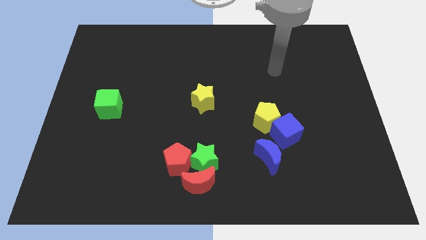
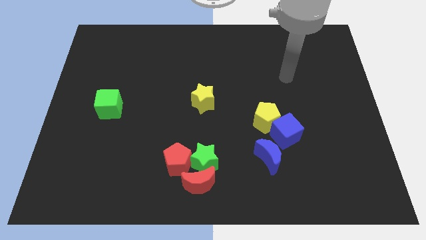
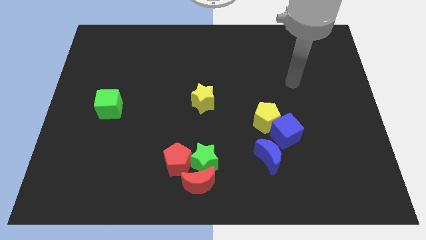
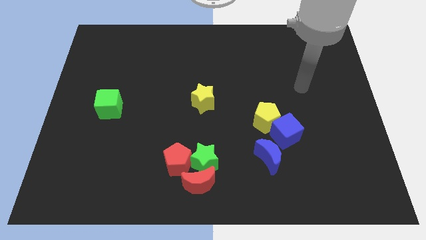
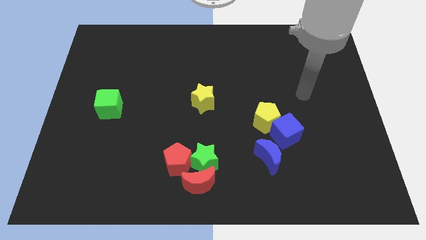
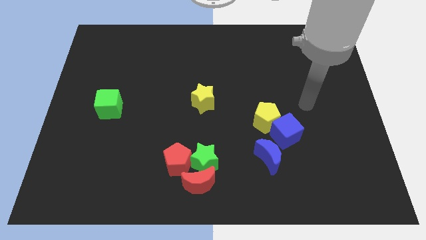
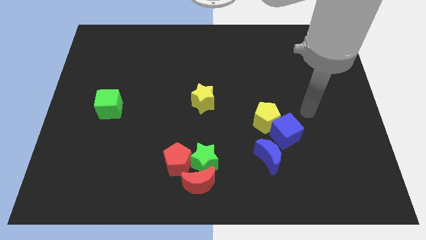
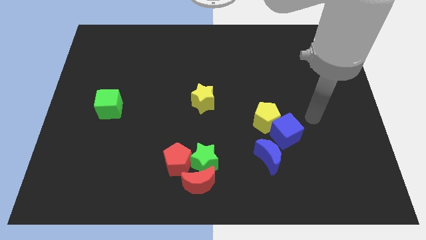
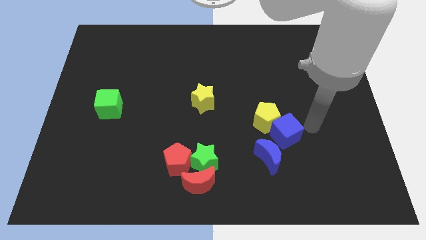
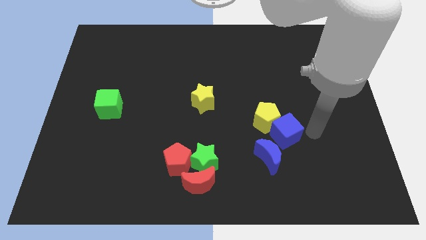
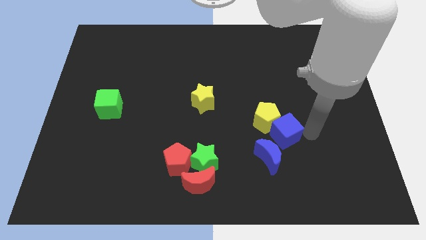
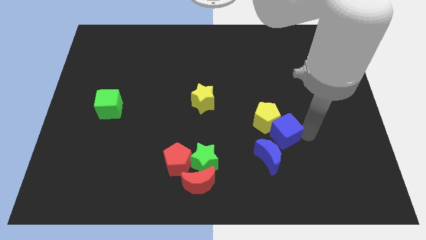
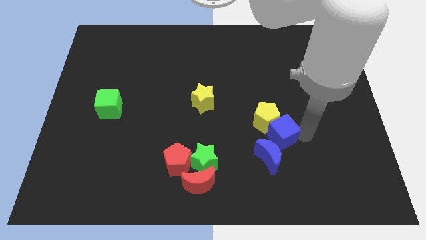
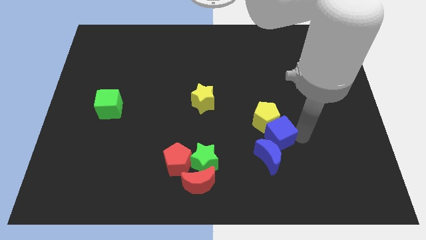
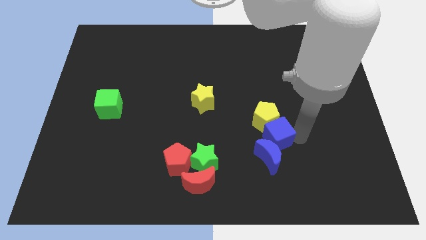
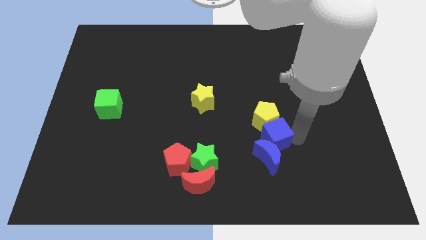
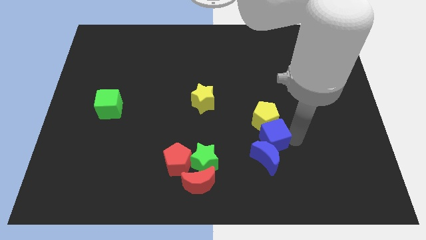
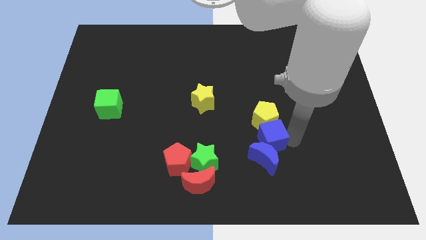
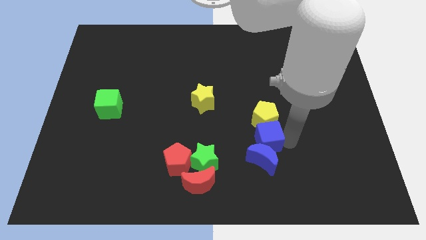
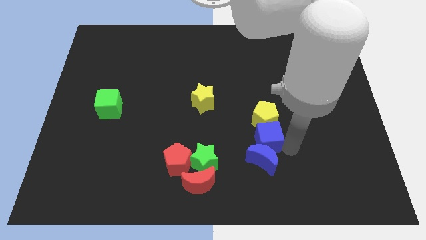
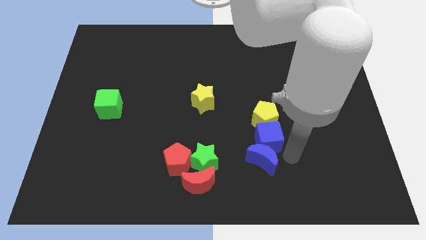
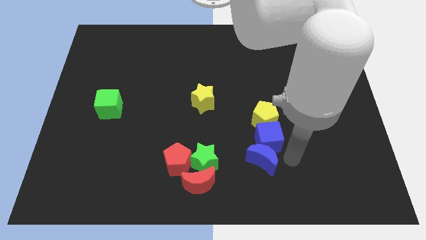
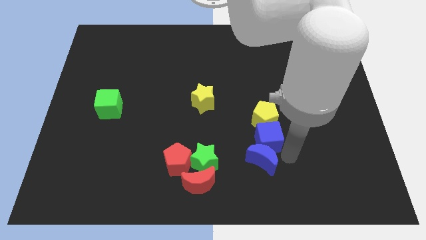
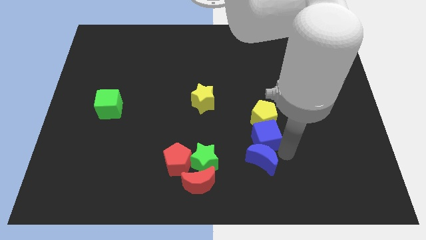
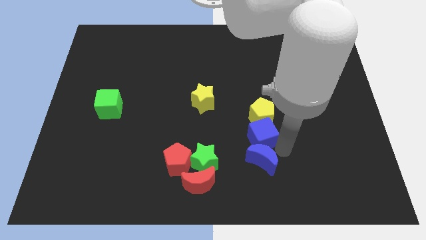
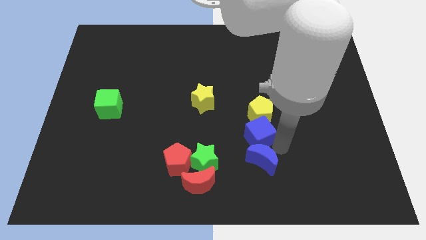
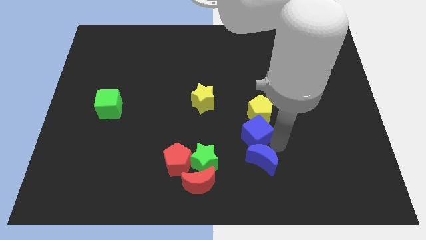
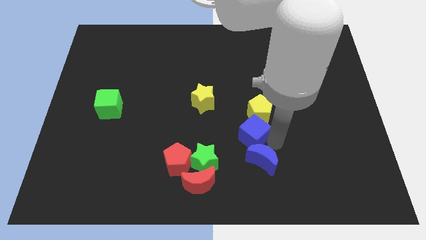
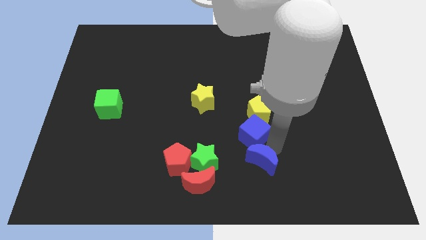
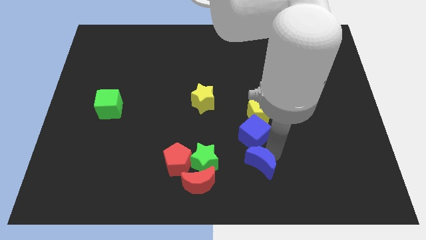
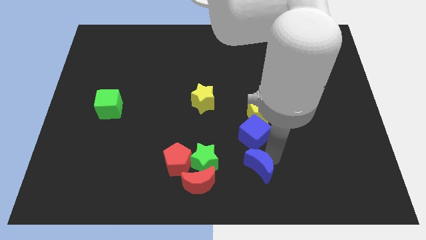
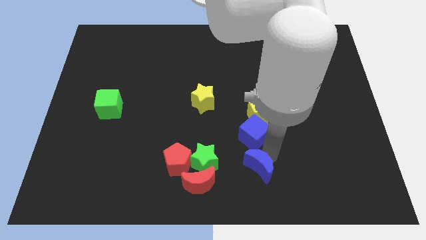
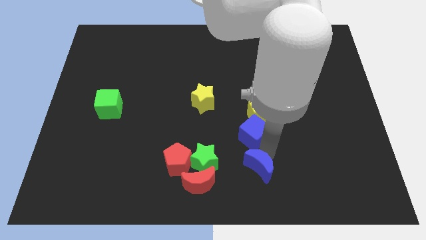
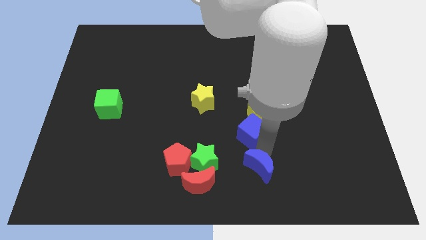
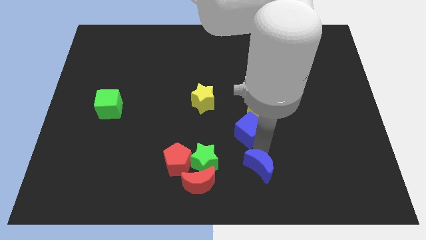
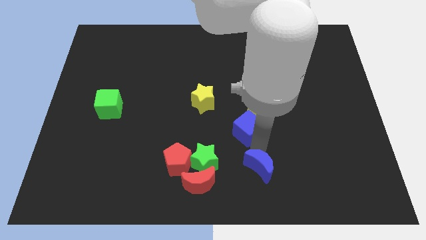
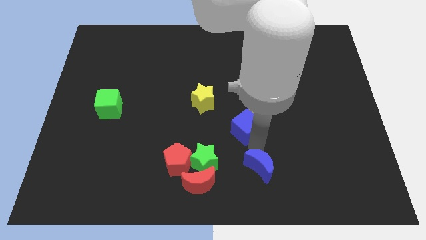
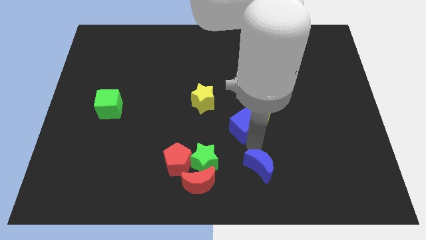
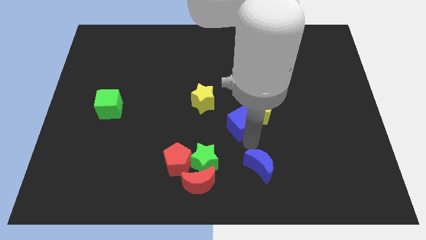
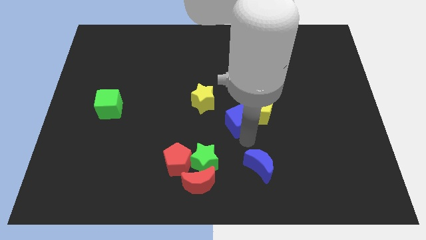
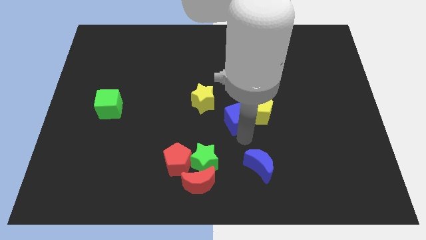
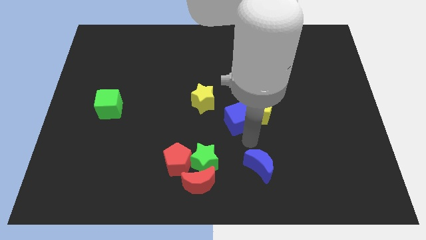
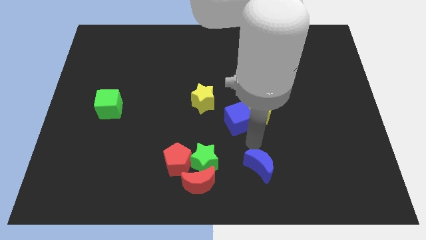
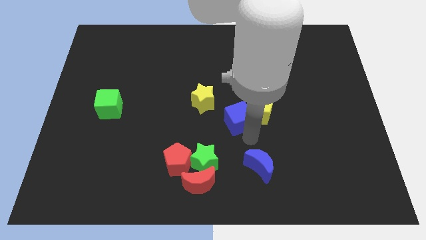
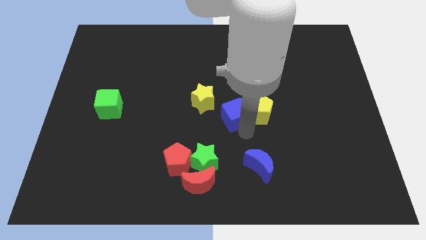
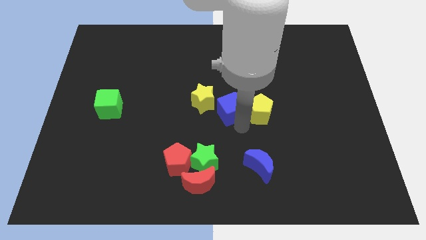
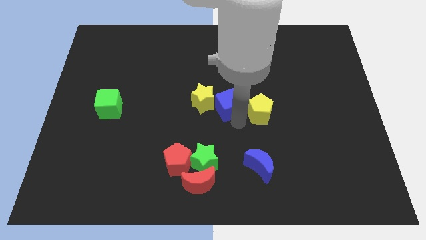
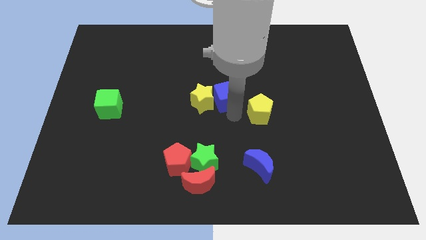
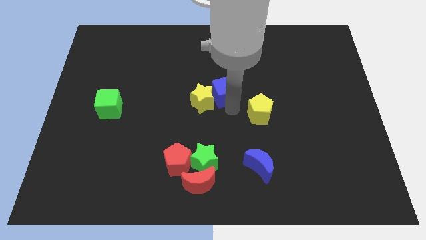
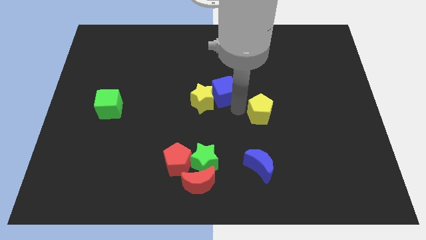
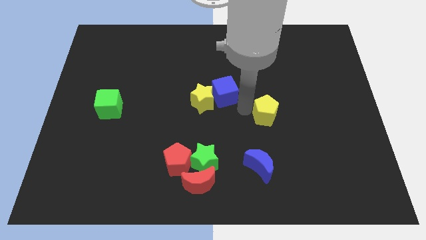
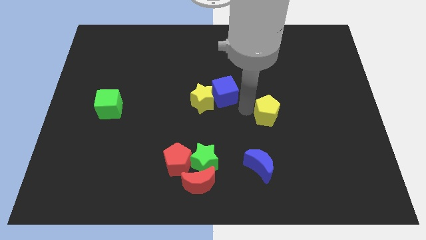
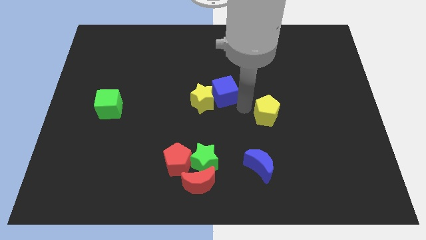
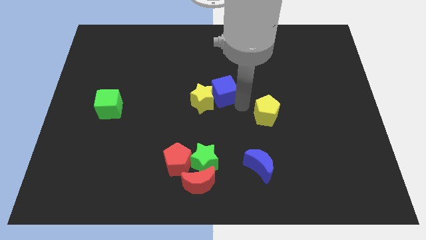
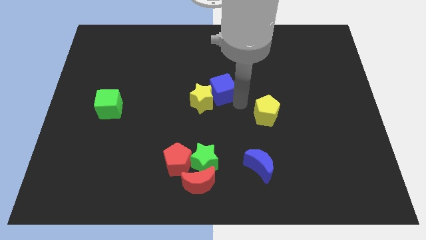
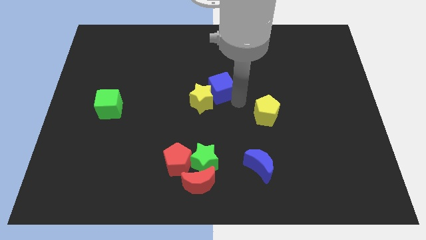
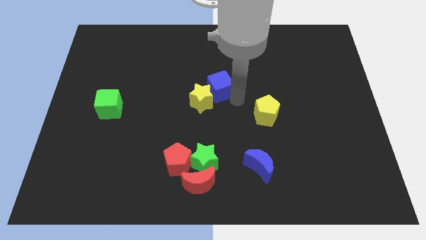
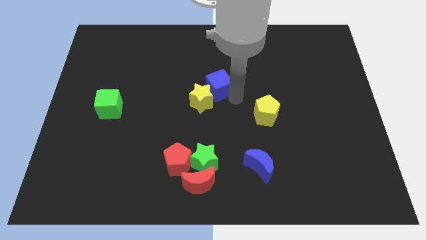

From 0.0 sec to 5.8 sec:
move the blue cube upwards and then left

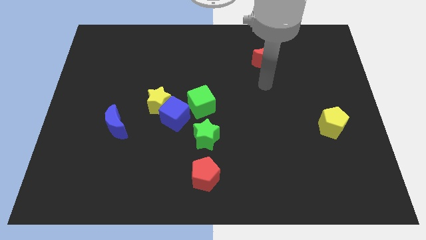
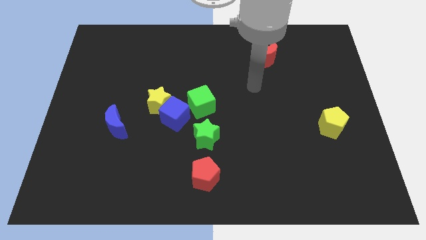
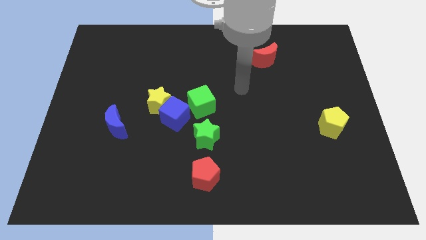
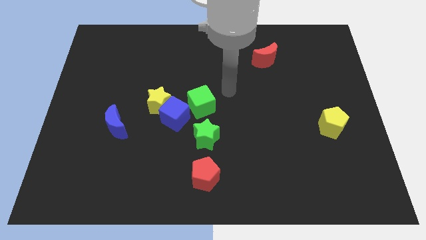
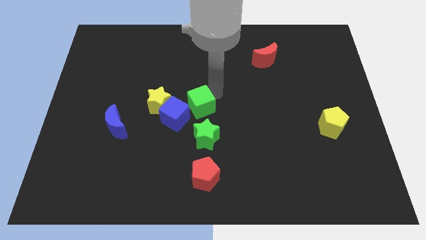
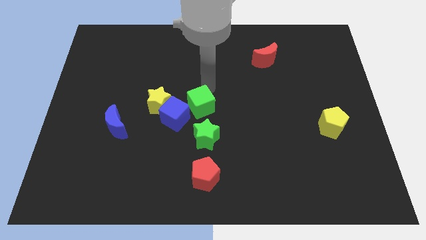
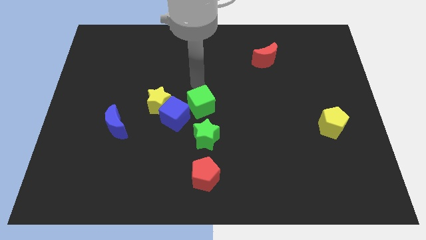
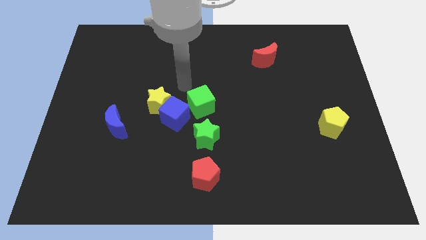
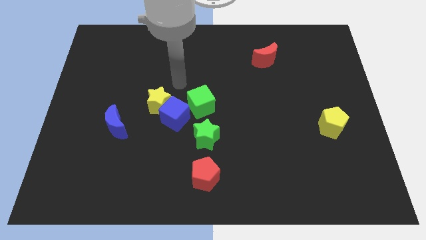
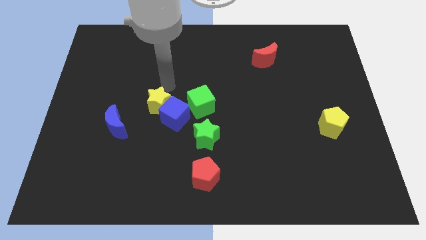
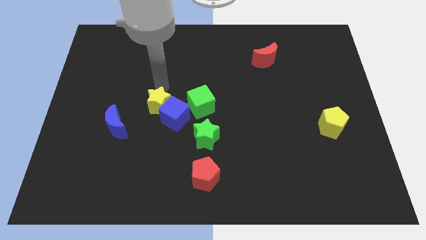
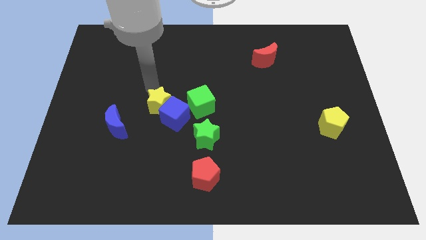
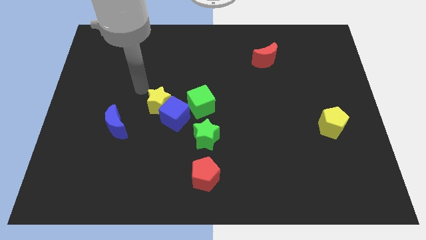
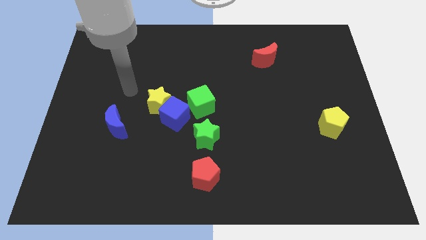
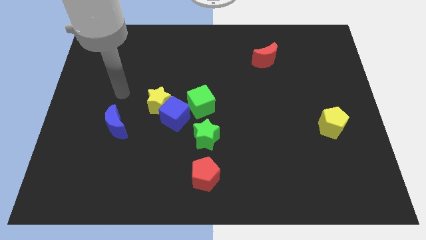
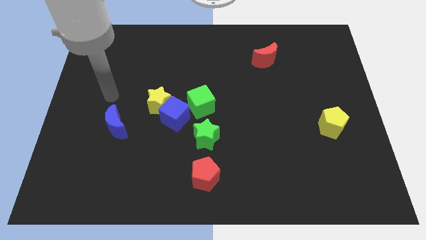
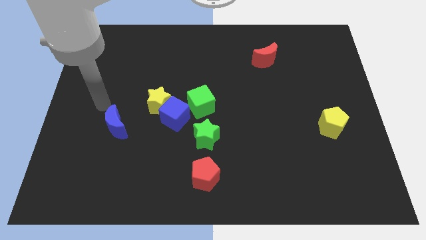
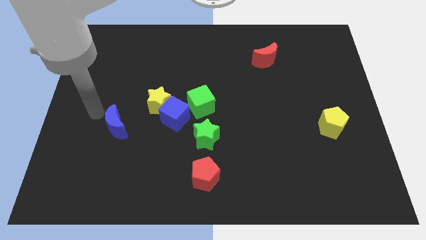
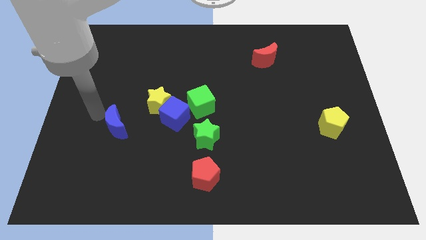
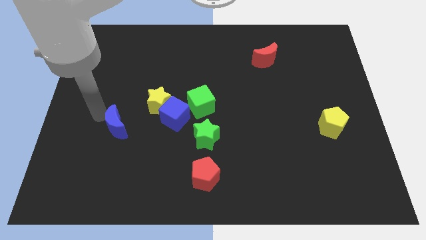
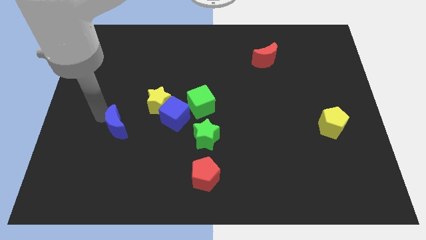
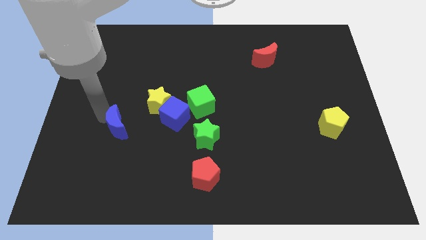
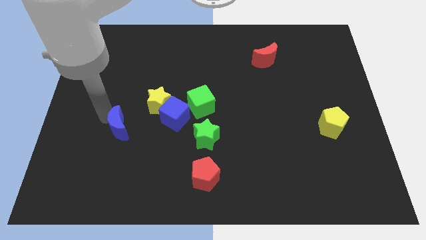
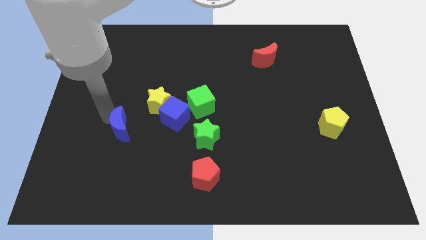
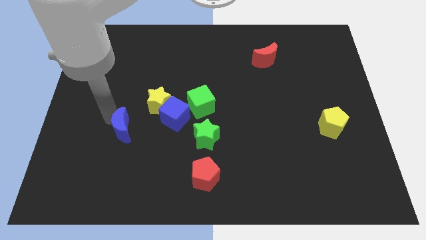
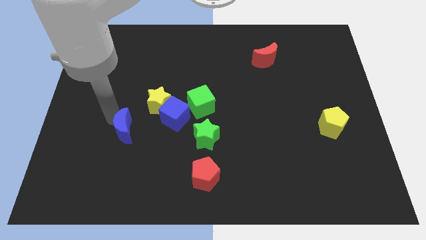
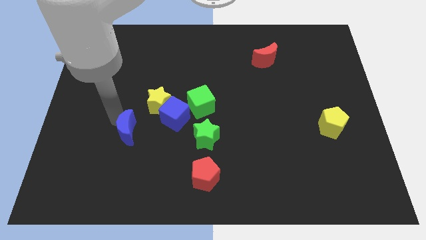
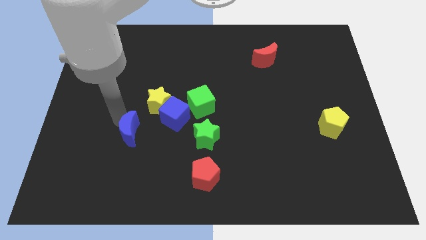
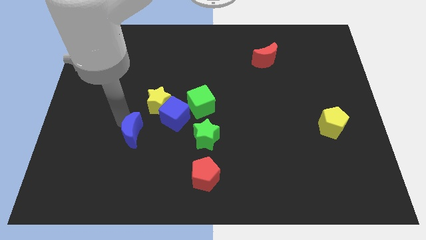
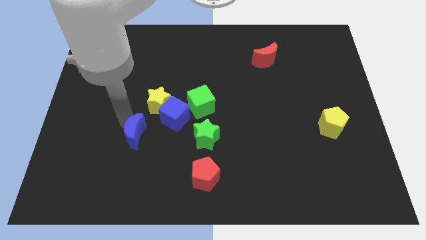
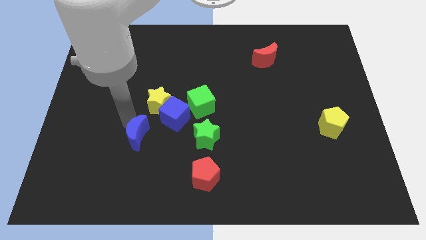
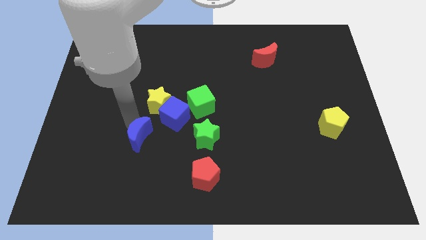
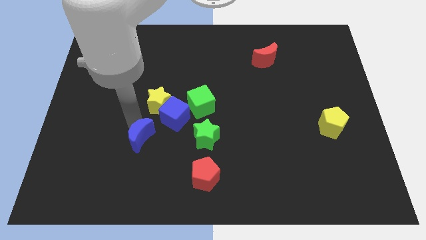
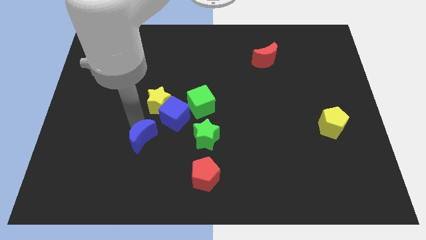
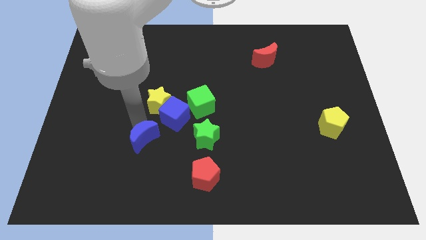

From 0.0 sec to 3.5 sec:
move the blue moon a little bit downwards and to the right diagonally
